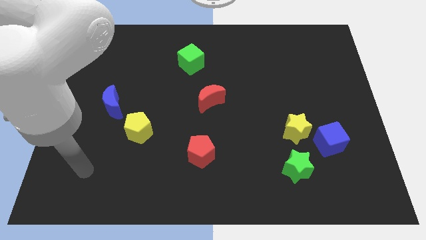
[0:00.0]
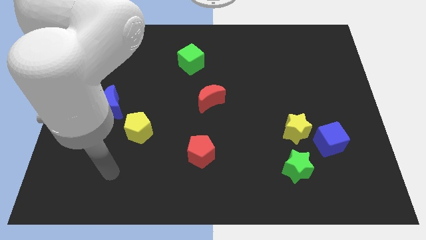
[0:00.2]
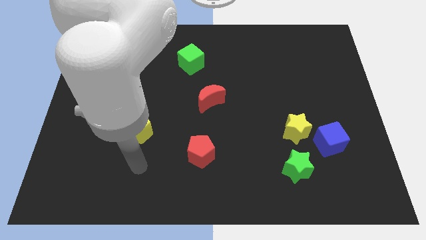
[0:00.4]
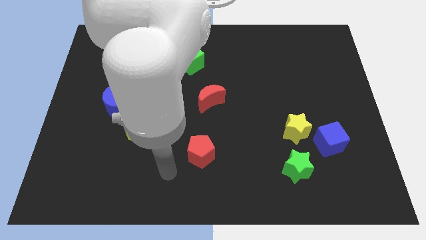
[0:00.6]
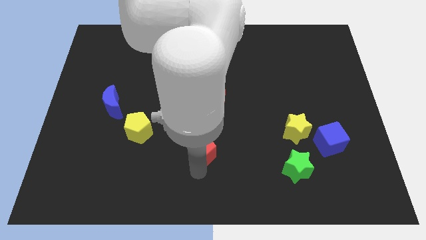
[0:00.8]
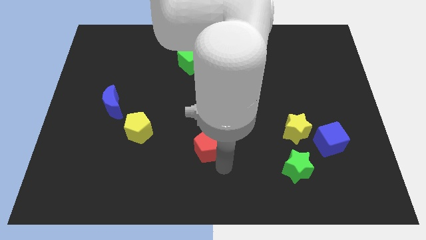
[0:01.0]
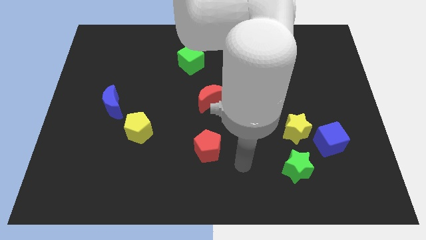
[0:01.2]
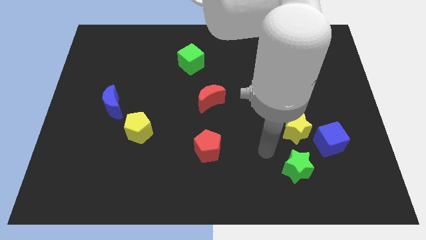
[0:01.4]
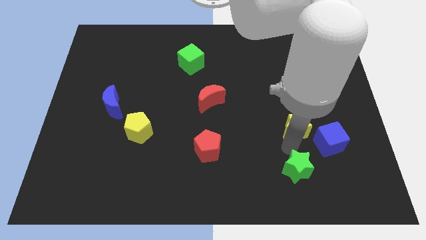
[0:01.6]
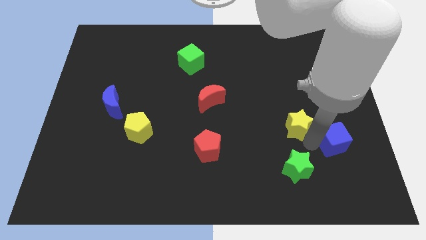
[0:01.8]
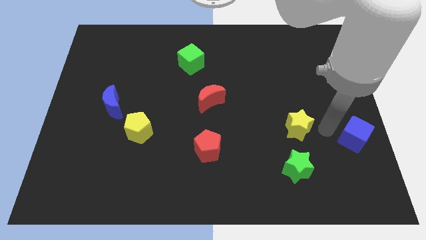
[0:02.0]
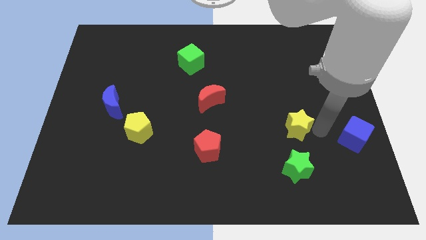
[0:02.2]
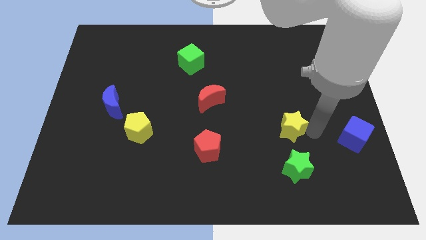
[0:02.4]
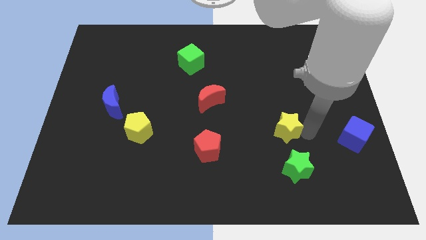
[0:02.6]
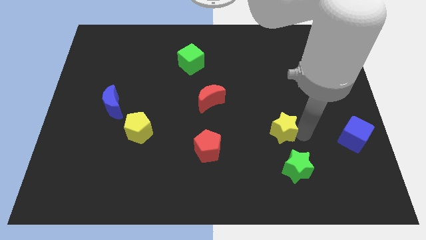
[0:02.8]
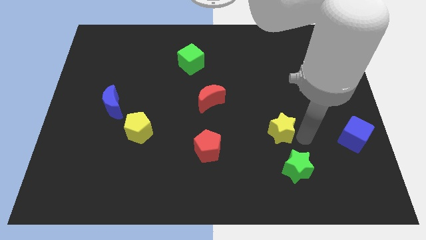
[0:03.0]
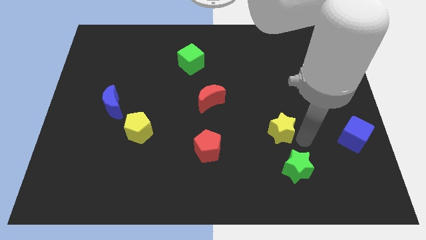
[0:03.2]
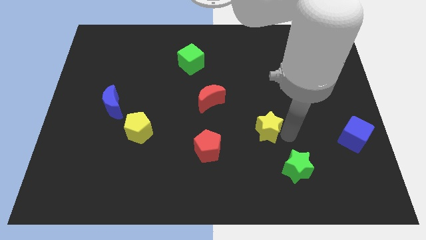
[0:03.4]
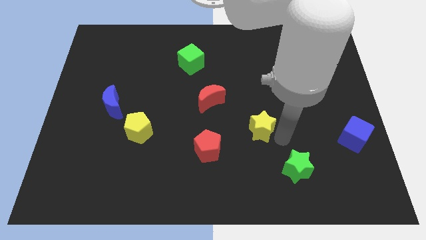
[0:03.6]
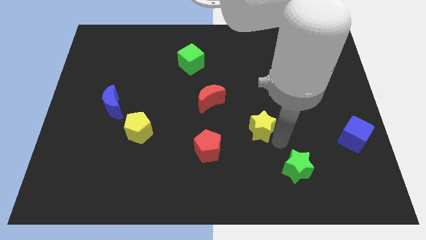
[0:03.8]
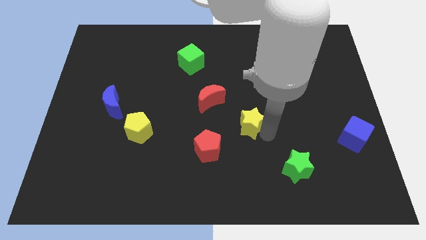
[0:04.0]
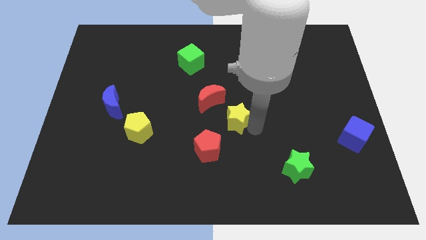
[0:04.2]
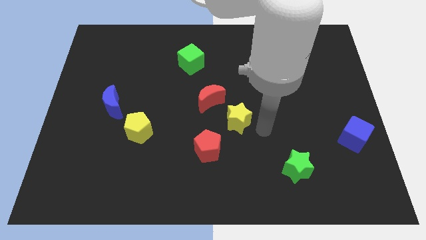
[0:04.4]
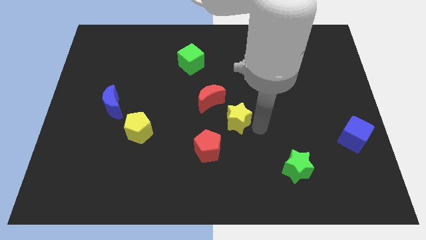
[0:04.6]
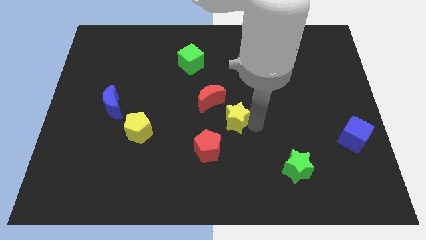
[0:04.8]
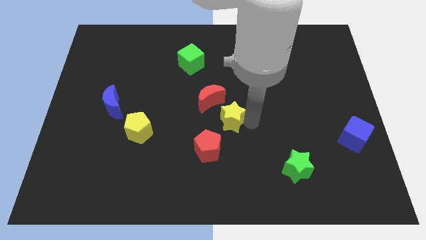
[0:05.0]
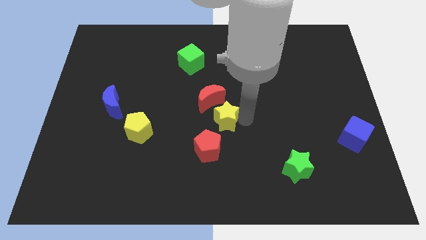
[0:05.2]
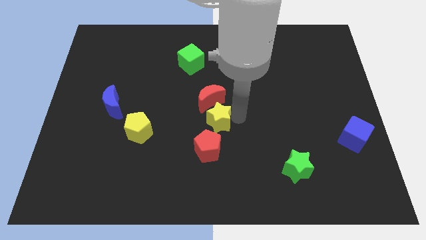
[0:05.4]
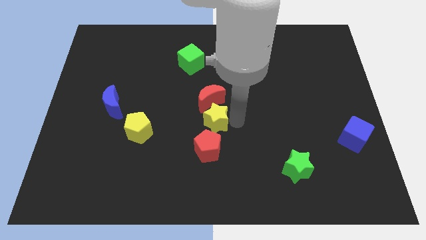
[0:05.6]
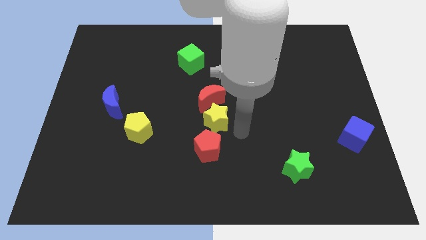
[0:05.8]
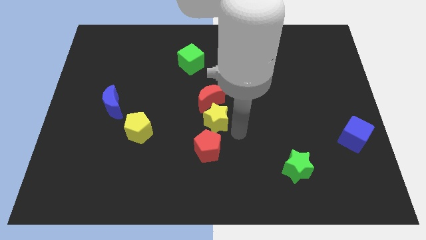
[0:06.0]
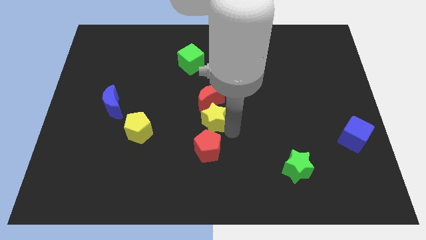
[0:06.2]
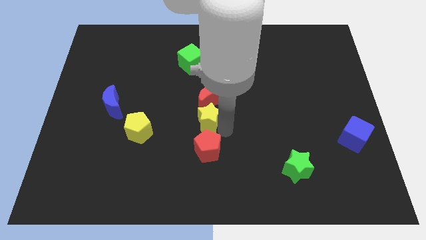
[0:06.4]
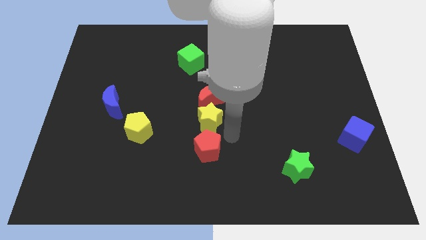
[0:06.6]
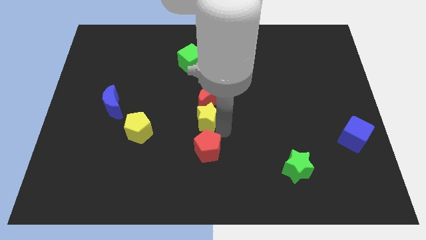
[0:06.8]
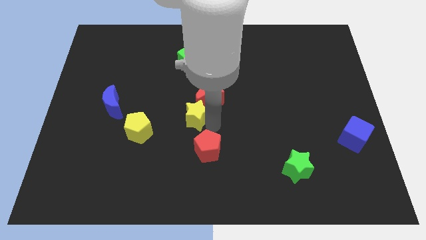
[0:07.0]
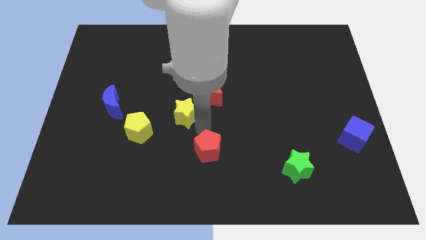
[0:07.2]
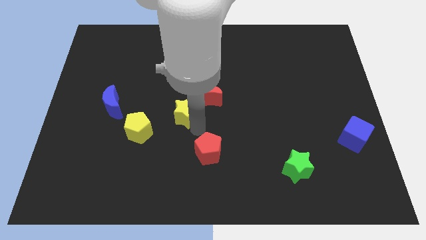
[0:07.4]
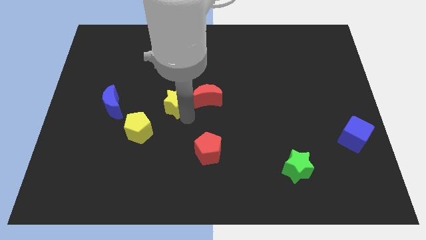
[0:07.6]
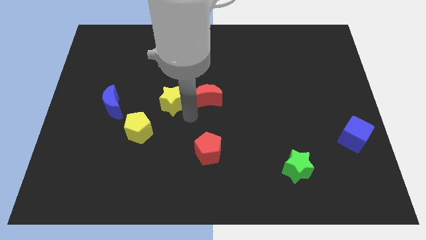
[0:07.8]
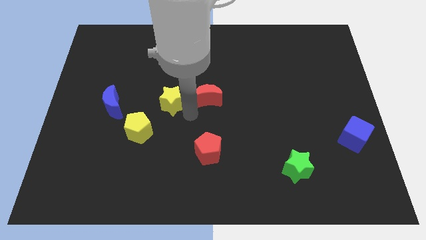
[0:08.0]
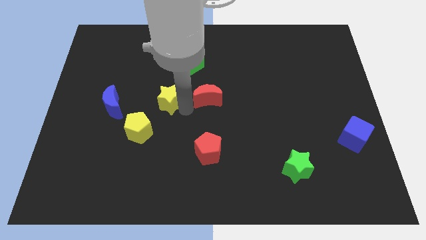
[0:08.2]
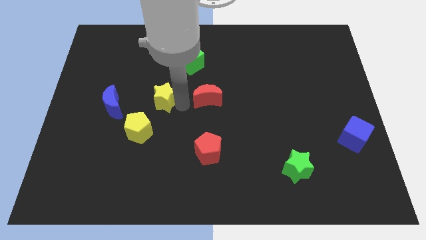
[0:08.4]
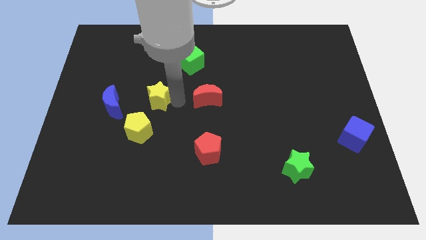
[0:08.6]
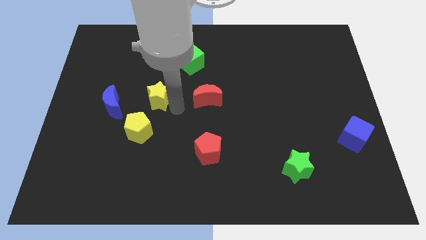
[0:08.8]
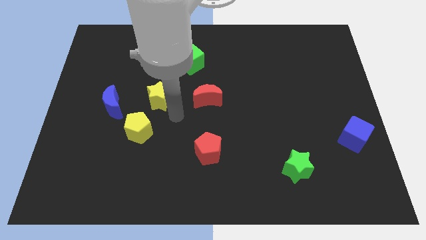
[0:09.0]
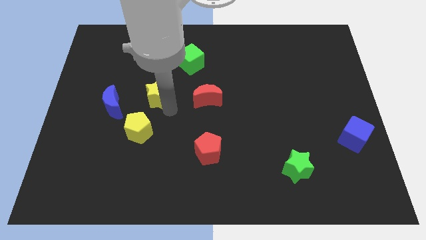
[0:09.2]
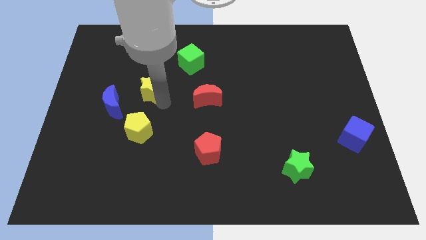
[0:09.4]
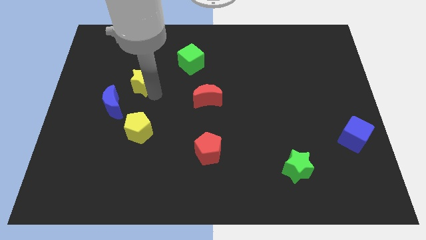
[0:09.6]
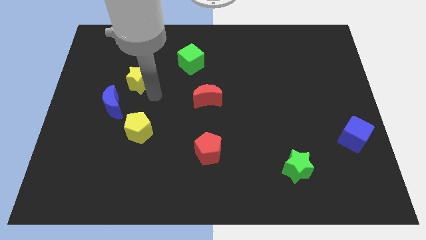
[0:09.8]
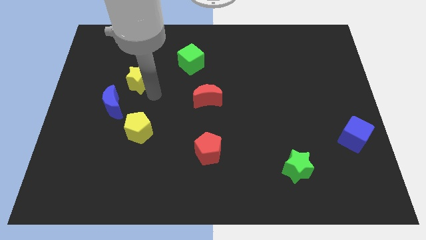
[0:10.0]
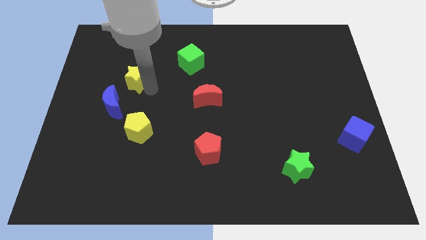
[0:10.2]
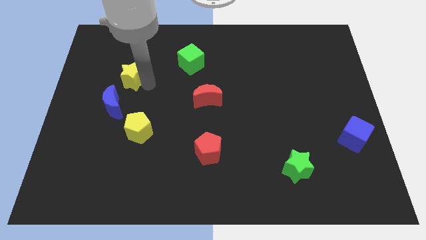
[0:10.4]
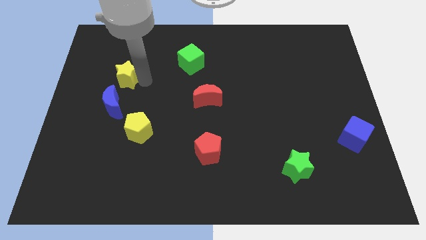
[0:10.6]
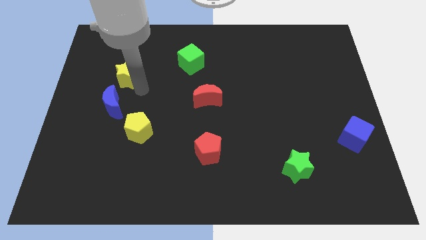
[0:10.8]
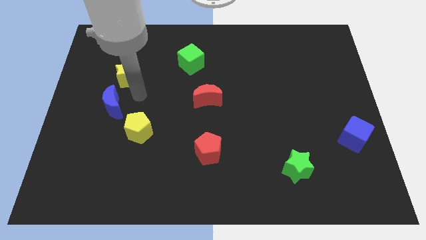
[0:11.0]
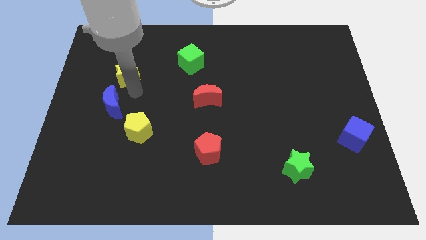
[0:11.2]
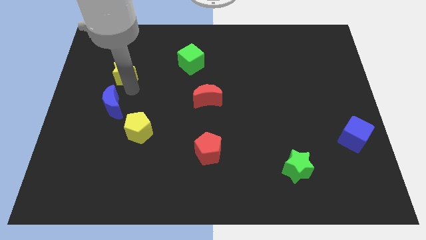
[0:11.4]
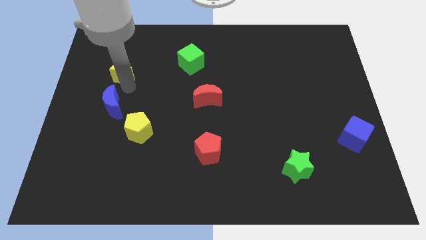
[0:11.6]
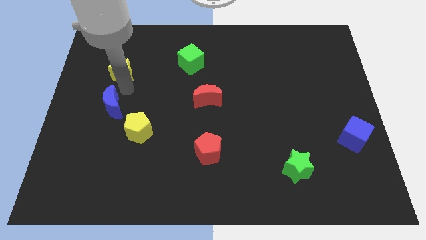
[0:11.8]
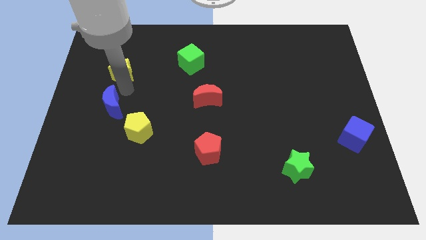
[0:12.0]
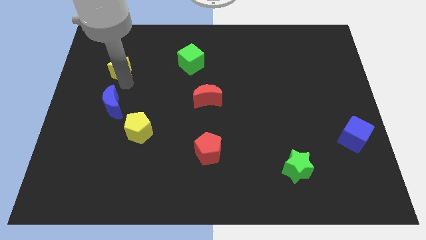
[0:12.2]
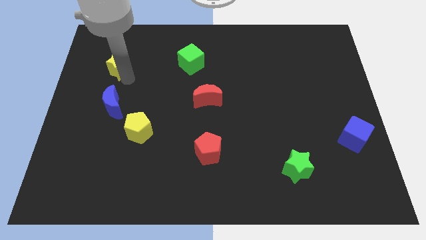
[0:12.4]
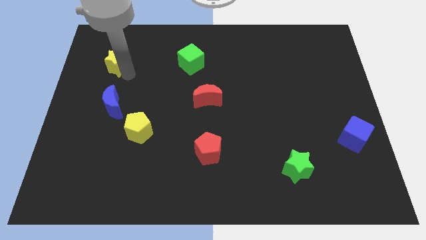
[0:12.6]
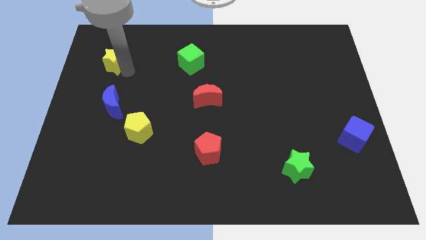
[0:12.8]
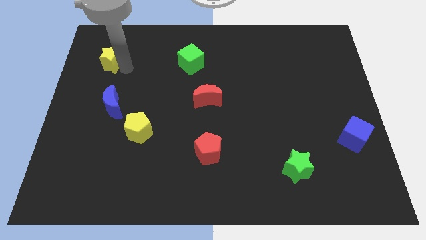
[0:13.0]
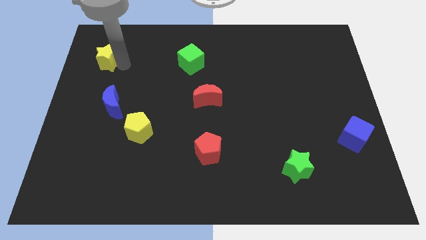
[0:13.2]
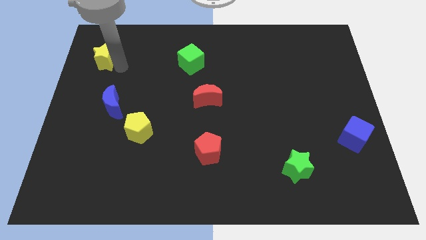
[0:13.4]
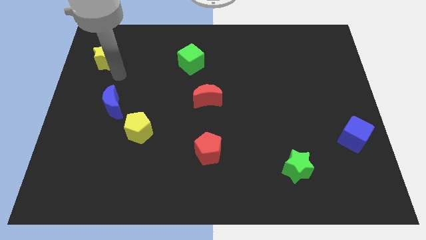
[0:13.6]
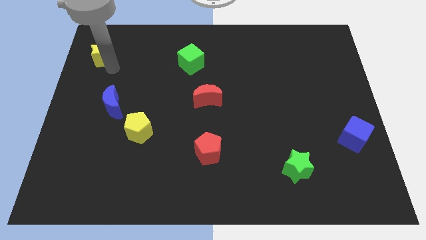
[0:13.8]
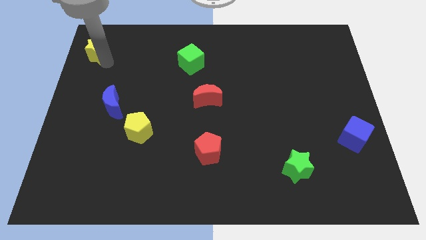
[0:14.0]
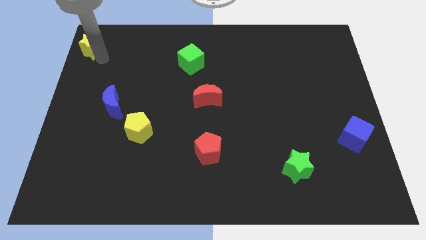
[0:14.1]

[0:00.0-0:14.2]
put the yellow star to the top left corner
